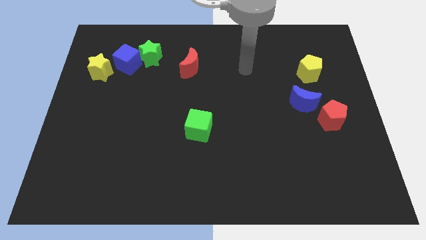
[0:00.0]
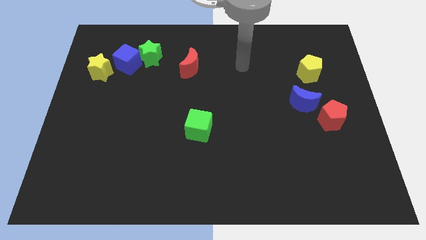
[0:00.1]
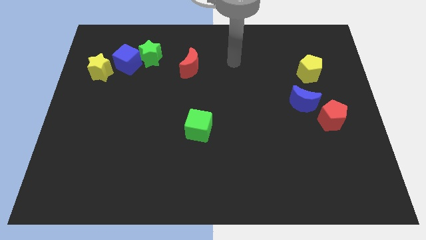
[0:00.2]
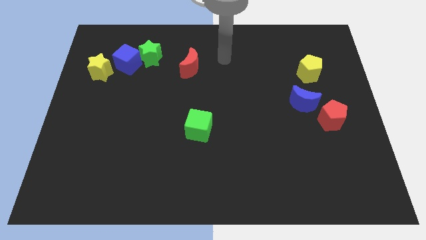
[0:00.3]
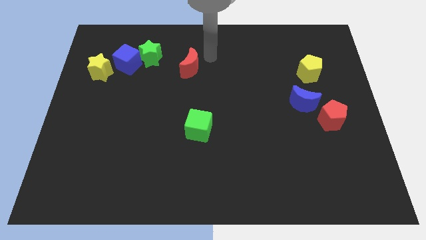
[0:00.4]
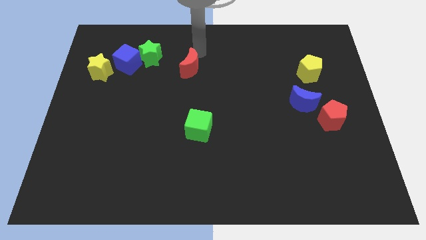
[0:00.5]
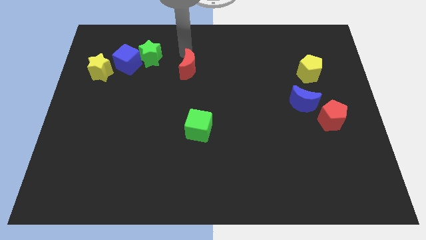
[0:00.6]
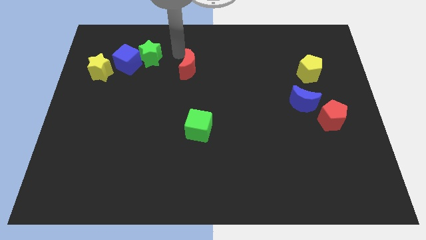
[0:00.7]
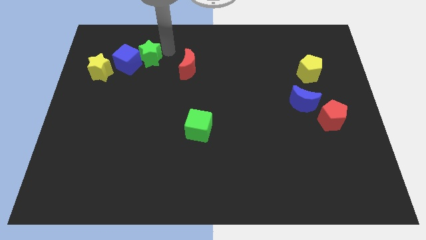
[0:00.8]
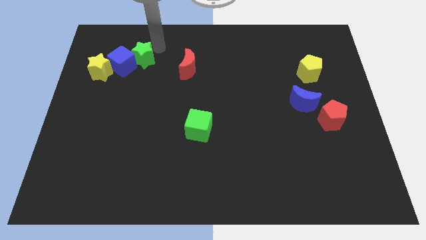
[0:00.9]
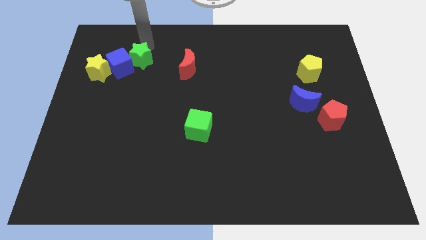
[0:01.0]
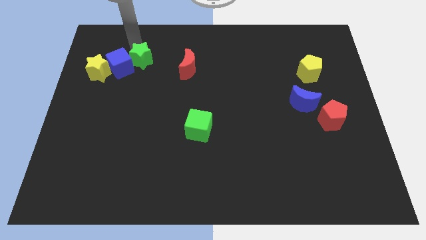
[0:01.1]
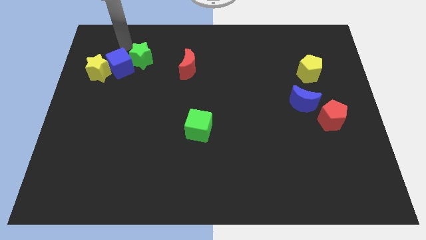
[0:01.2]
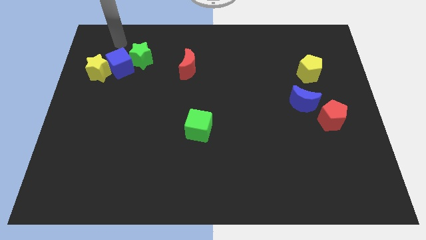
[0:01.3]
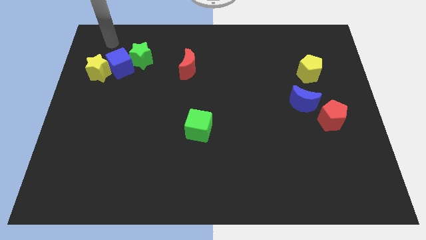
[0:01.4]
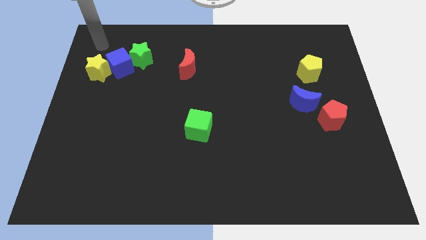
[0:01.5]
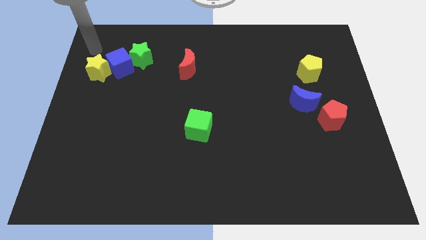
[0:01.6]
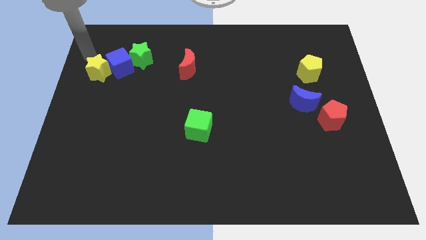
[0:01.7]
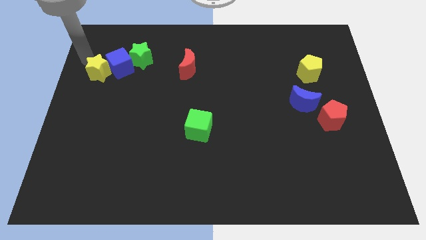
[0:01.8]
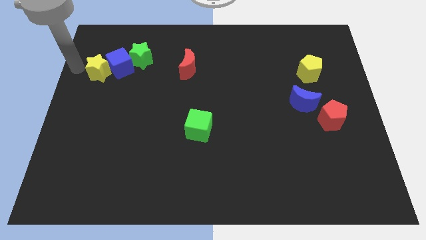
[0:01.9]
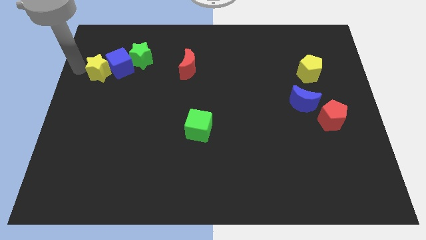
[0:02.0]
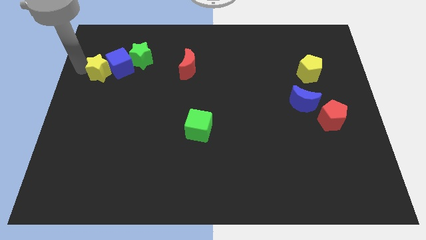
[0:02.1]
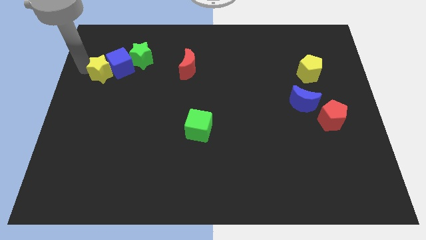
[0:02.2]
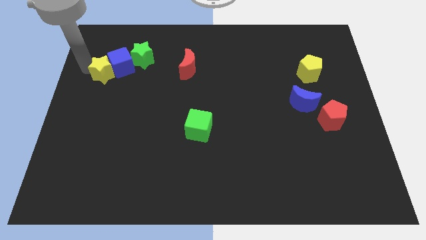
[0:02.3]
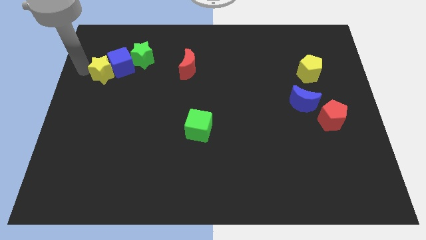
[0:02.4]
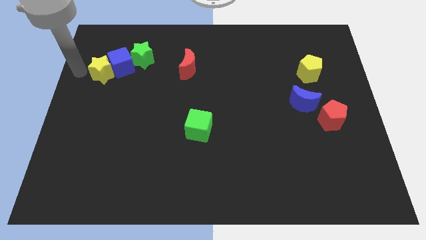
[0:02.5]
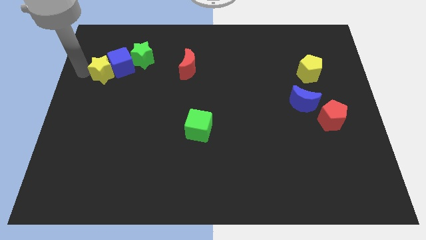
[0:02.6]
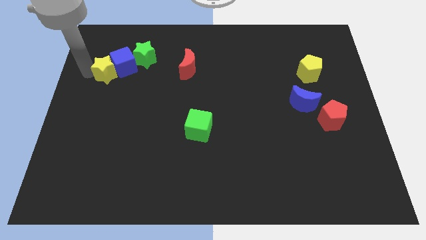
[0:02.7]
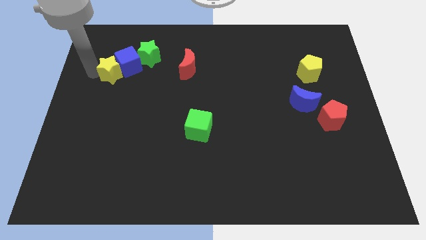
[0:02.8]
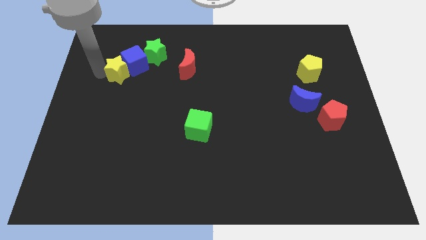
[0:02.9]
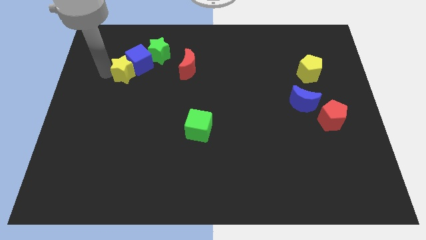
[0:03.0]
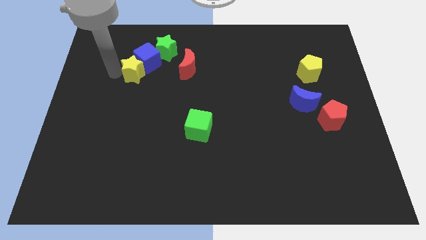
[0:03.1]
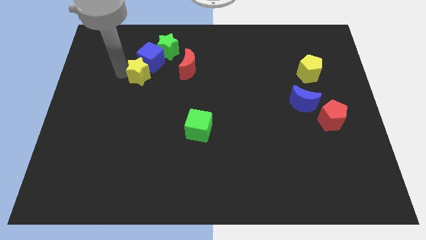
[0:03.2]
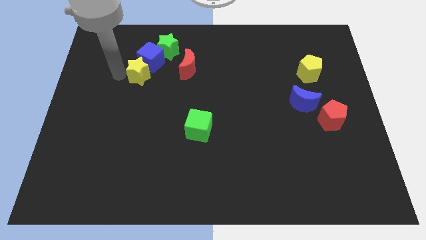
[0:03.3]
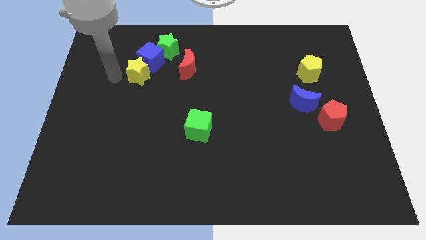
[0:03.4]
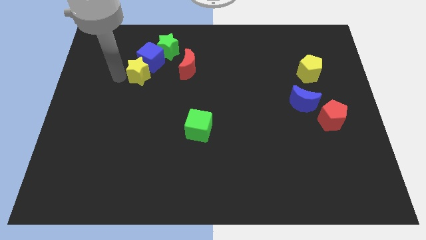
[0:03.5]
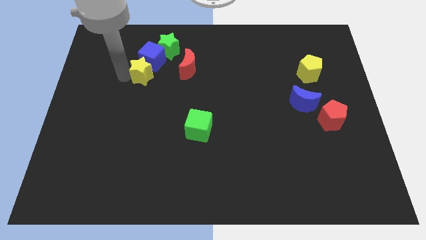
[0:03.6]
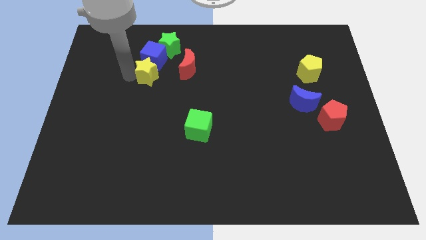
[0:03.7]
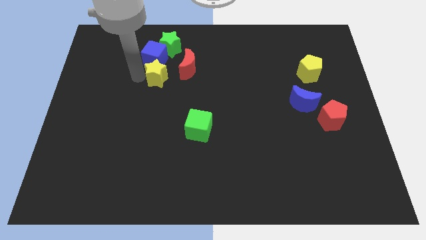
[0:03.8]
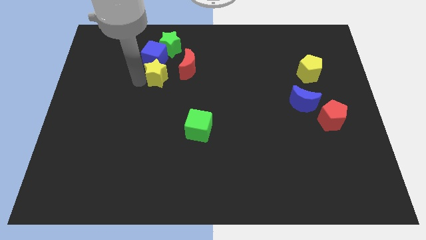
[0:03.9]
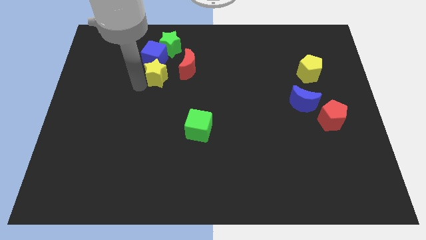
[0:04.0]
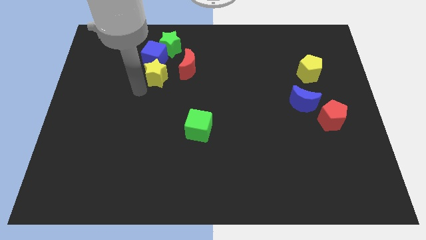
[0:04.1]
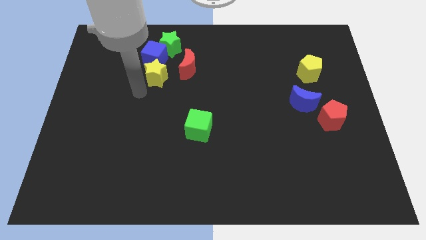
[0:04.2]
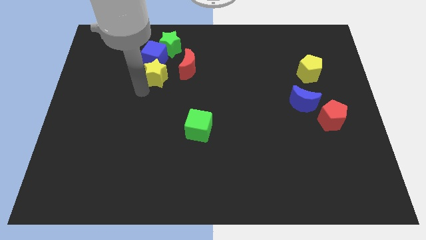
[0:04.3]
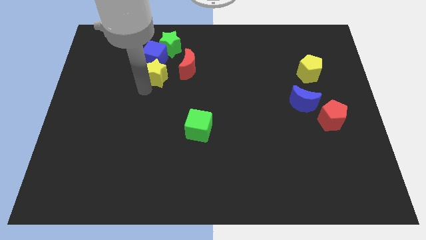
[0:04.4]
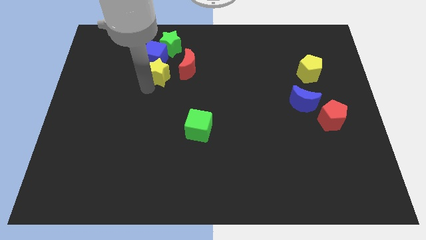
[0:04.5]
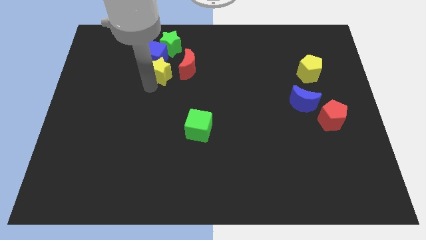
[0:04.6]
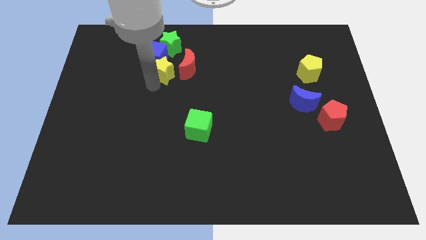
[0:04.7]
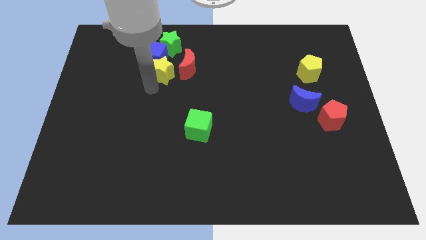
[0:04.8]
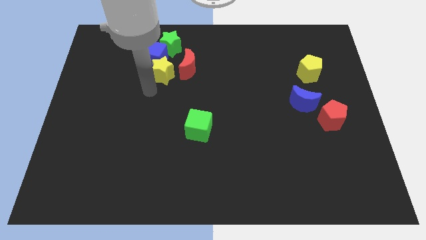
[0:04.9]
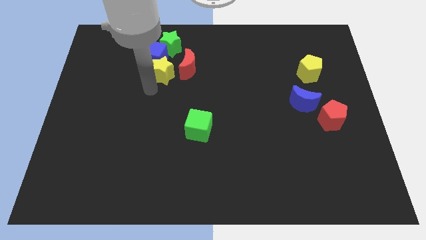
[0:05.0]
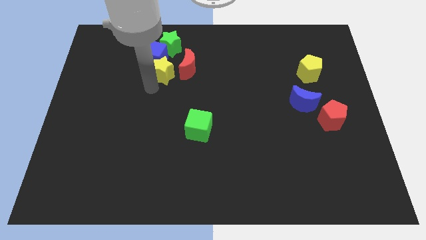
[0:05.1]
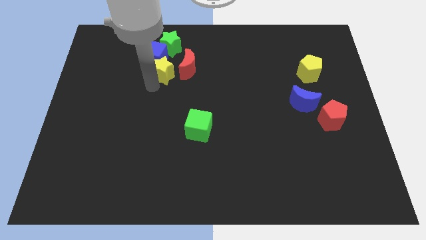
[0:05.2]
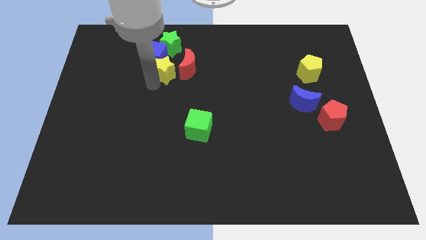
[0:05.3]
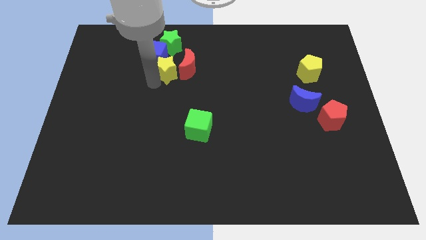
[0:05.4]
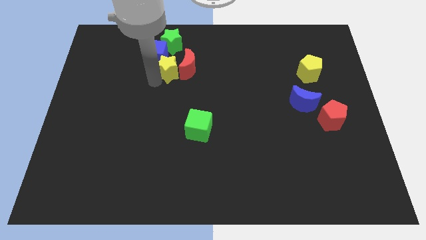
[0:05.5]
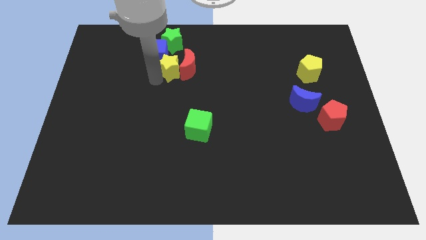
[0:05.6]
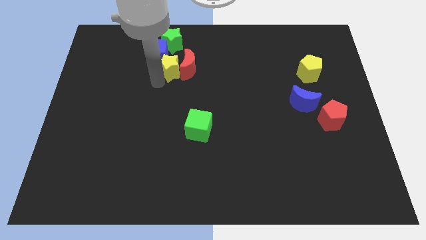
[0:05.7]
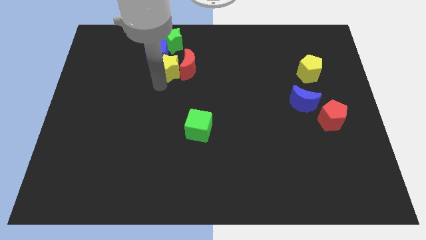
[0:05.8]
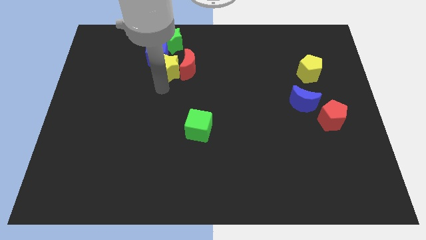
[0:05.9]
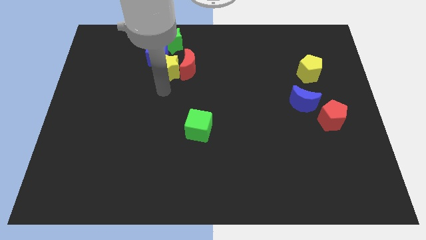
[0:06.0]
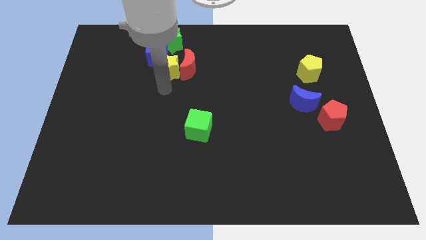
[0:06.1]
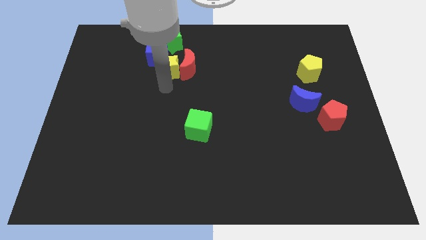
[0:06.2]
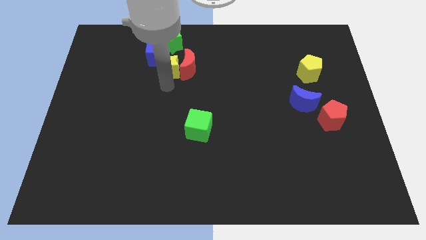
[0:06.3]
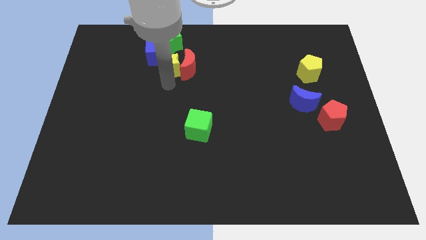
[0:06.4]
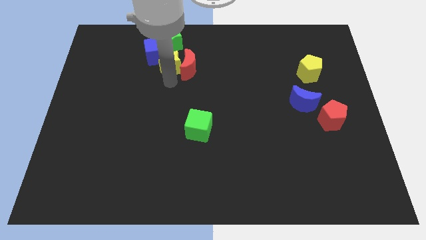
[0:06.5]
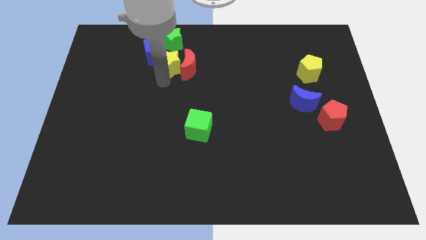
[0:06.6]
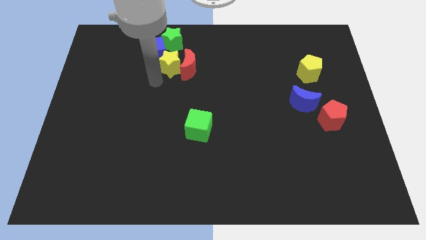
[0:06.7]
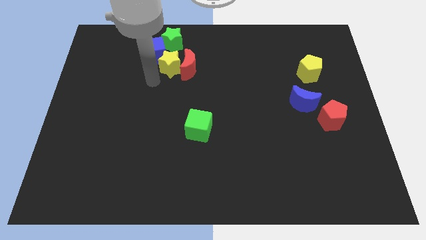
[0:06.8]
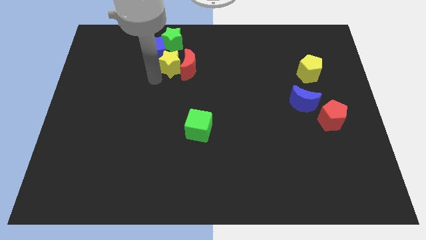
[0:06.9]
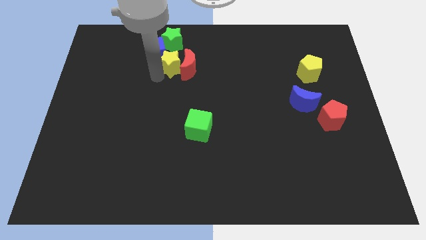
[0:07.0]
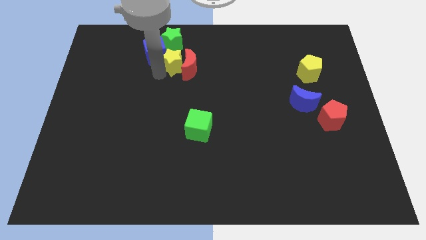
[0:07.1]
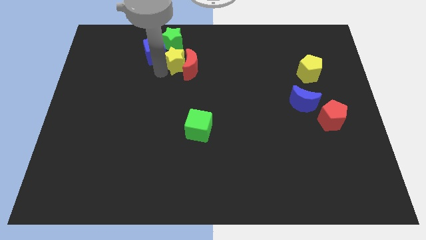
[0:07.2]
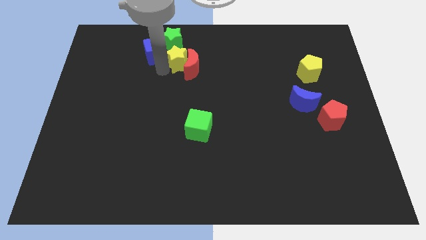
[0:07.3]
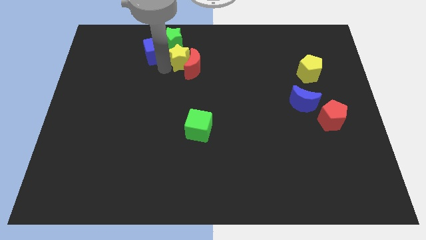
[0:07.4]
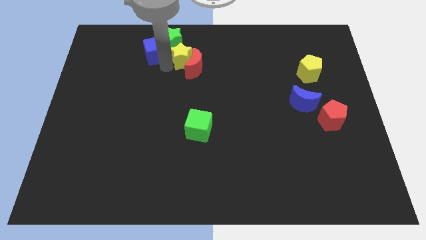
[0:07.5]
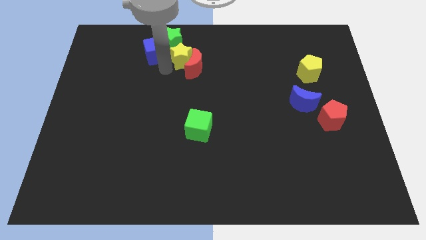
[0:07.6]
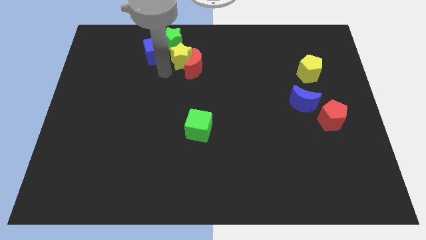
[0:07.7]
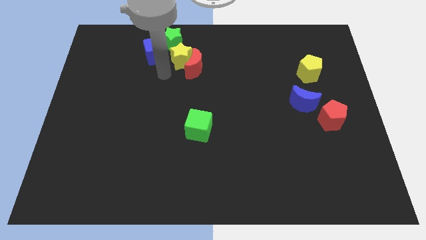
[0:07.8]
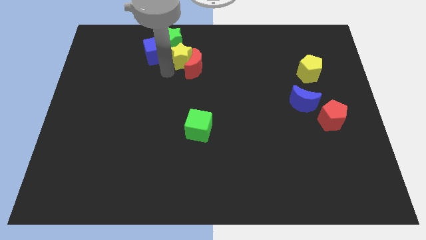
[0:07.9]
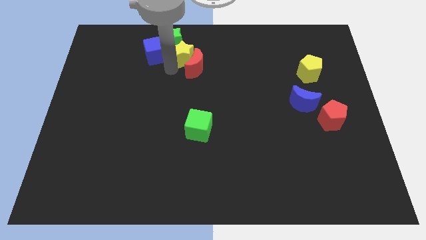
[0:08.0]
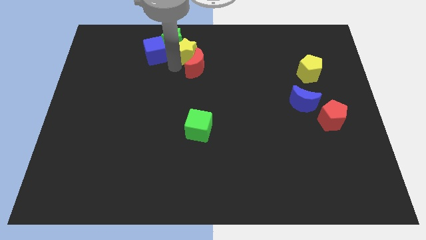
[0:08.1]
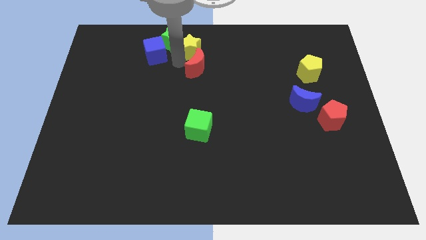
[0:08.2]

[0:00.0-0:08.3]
push the yellow star to the top
